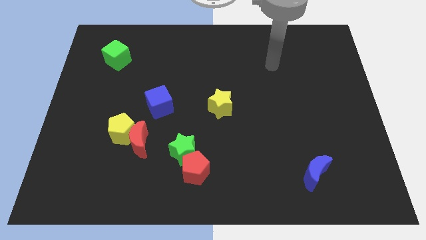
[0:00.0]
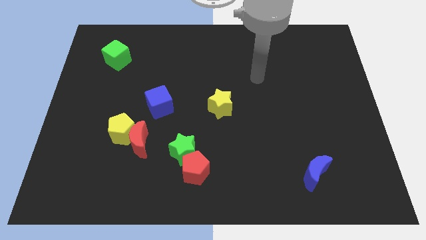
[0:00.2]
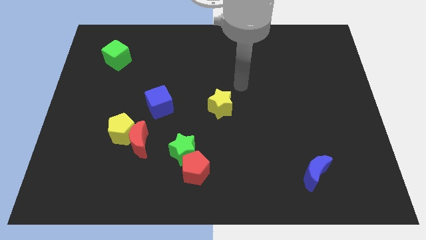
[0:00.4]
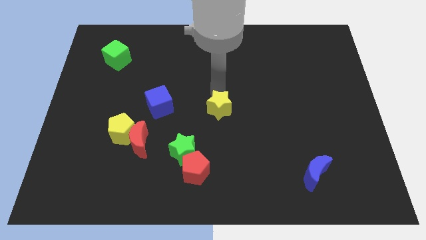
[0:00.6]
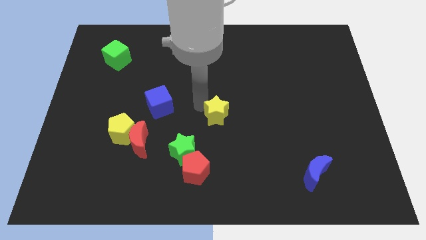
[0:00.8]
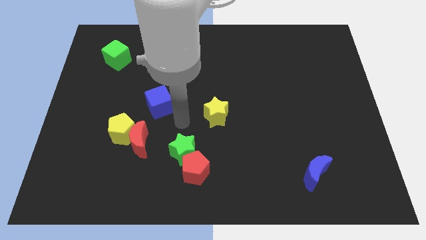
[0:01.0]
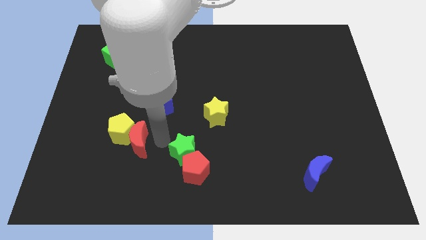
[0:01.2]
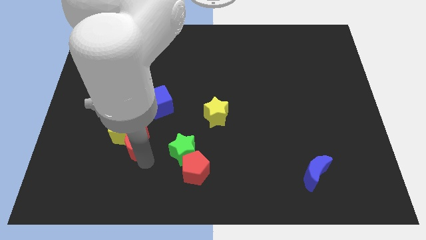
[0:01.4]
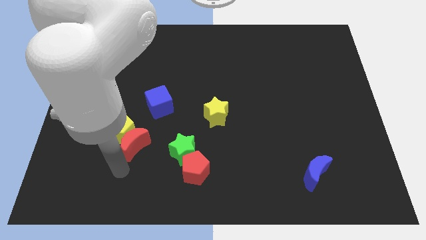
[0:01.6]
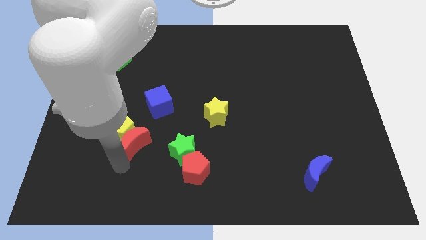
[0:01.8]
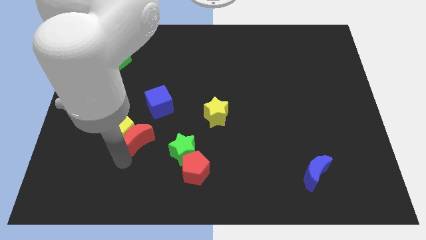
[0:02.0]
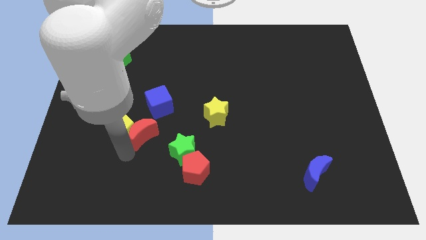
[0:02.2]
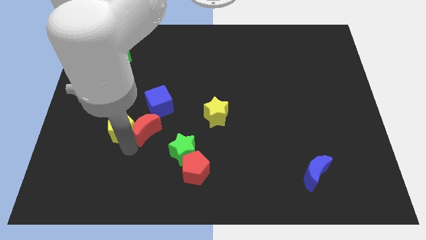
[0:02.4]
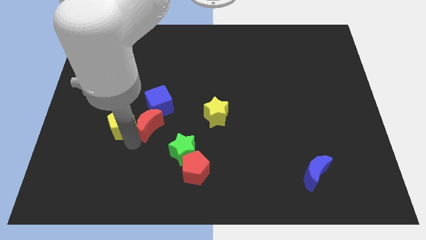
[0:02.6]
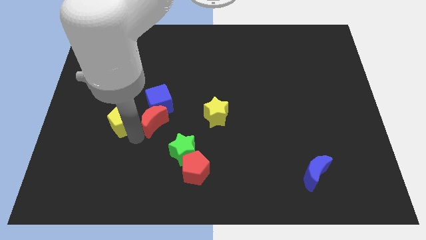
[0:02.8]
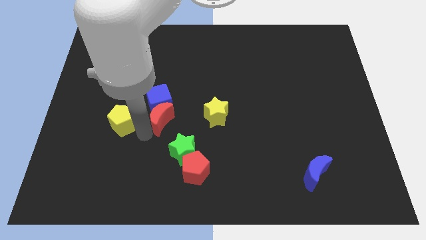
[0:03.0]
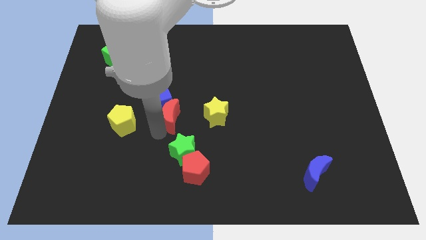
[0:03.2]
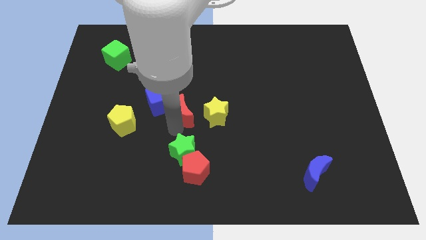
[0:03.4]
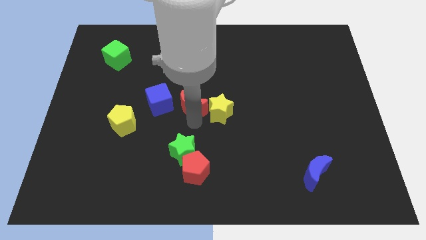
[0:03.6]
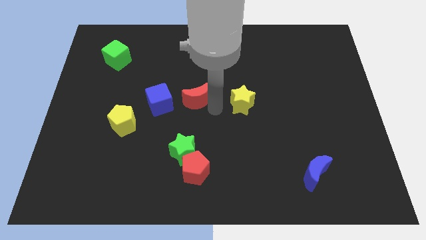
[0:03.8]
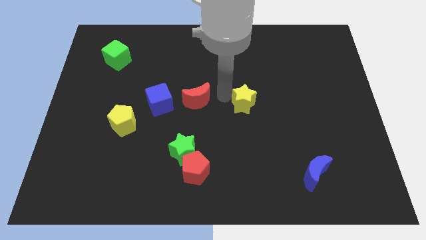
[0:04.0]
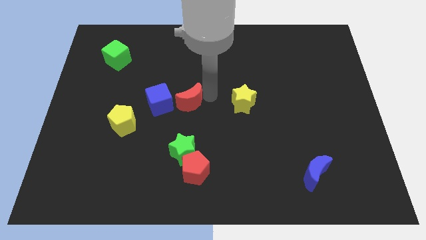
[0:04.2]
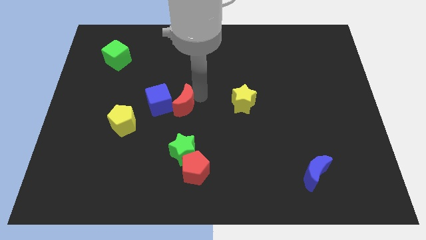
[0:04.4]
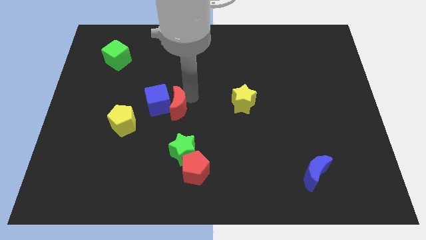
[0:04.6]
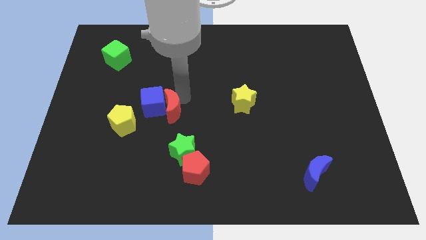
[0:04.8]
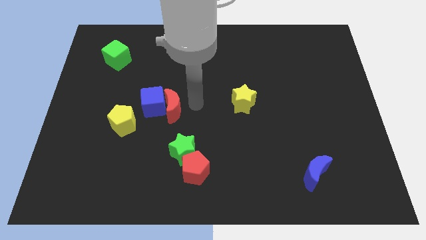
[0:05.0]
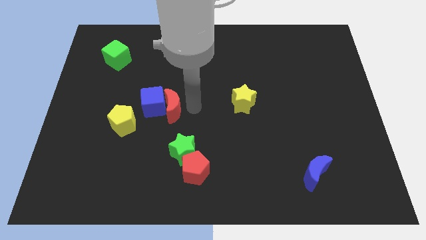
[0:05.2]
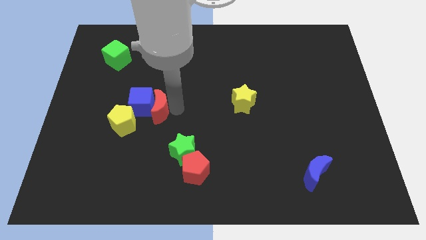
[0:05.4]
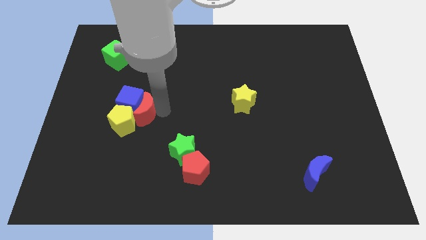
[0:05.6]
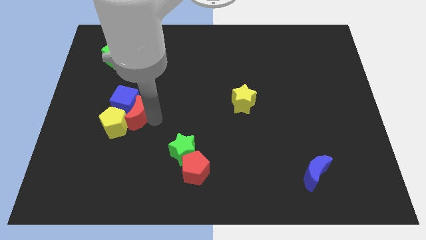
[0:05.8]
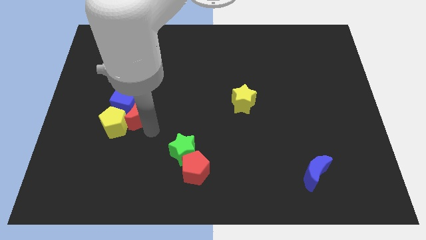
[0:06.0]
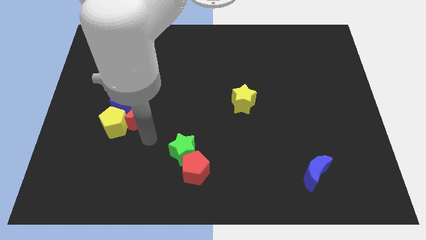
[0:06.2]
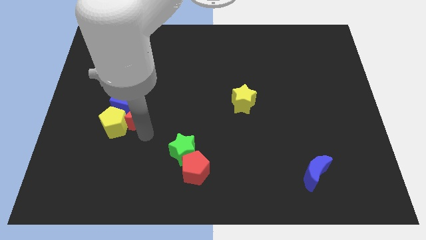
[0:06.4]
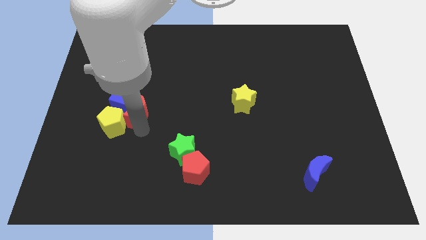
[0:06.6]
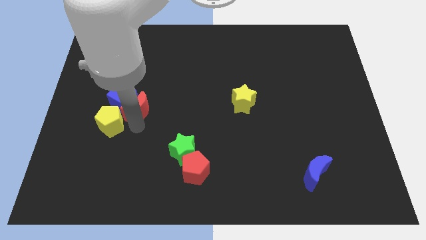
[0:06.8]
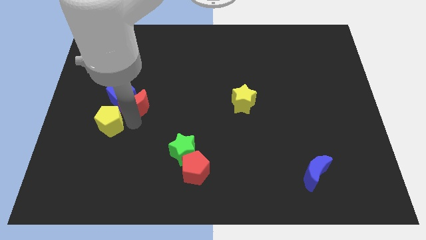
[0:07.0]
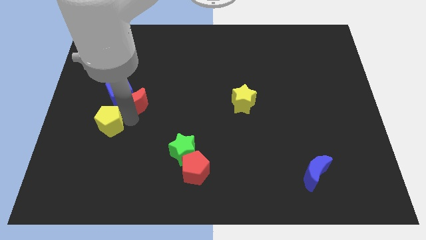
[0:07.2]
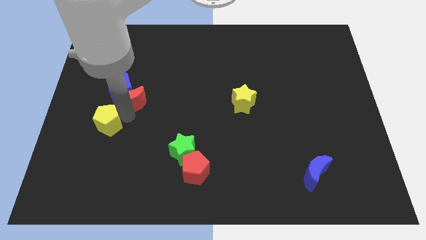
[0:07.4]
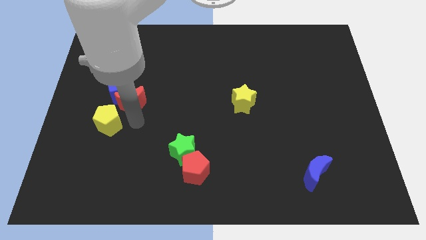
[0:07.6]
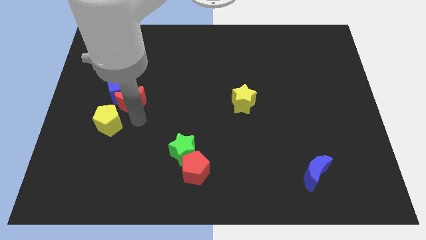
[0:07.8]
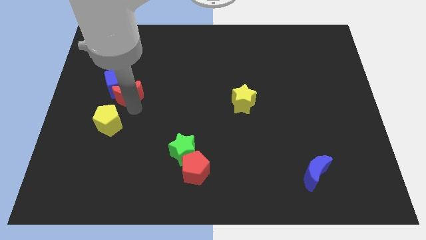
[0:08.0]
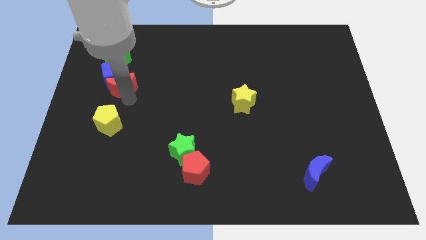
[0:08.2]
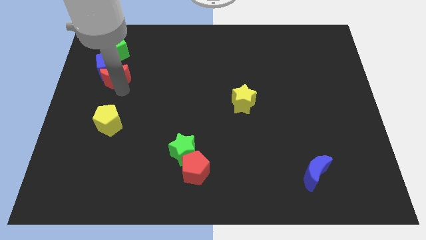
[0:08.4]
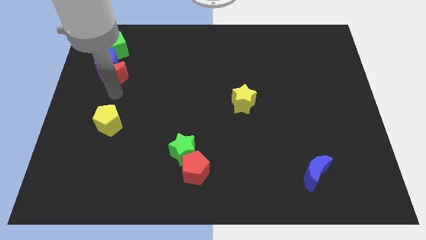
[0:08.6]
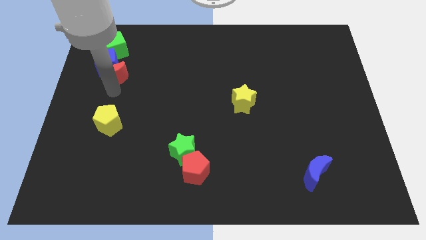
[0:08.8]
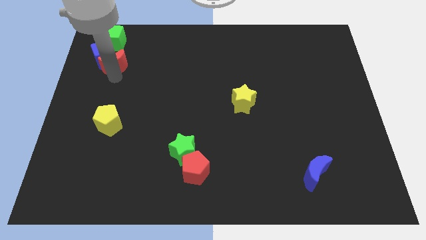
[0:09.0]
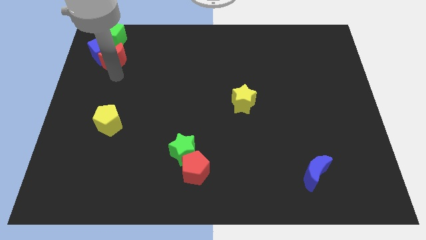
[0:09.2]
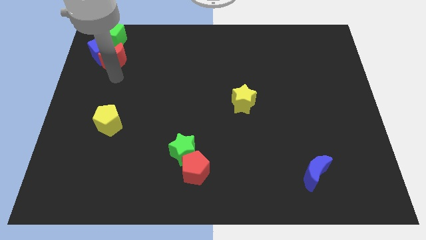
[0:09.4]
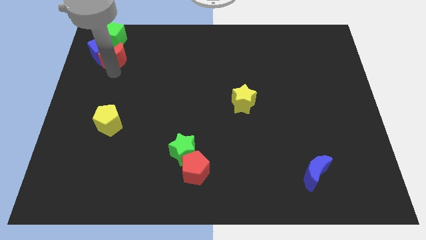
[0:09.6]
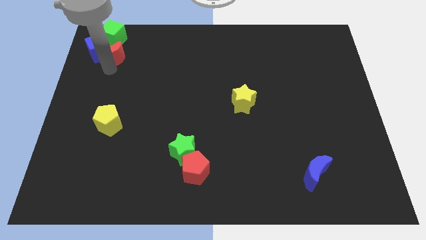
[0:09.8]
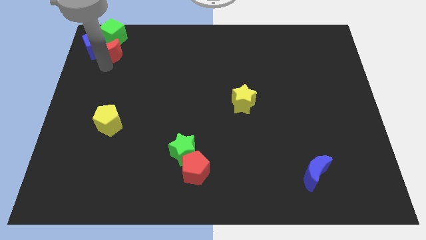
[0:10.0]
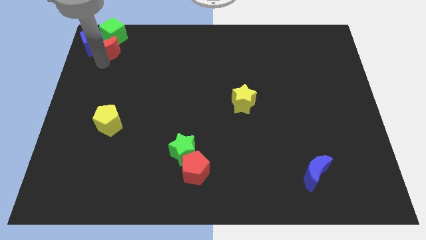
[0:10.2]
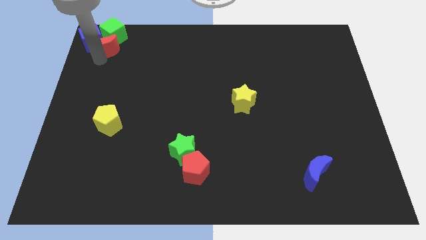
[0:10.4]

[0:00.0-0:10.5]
put the red moon towards the green cube

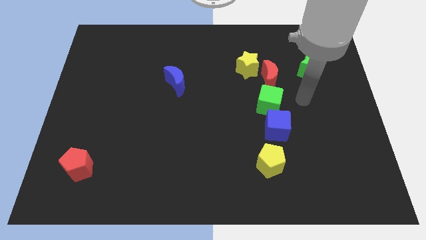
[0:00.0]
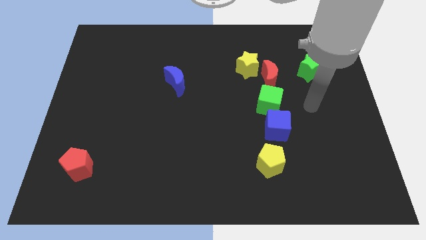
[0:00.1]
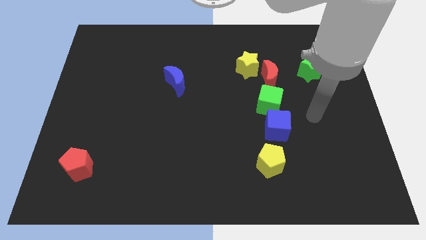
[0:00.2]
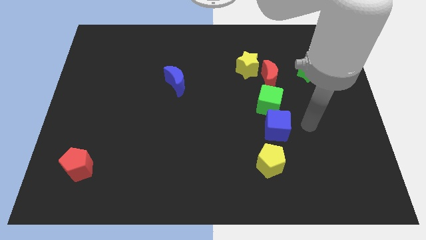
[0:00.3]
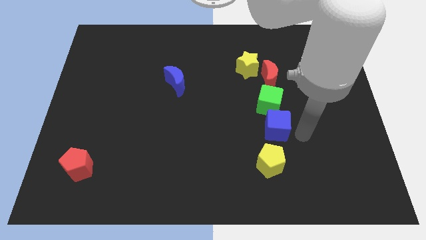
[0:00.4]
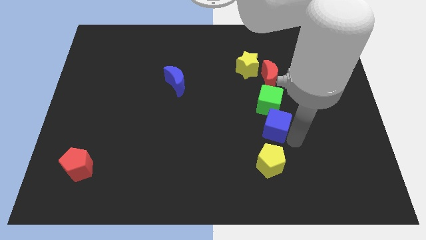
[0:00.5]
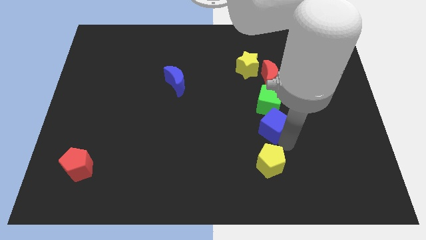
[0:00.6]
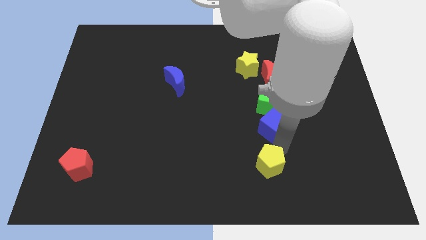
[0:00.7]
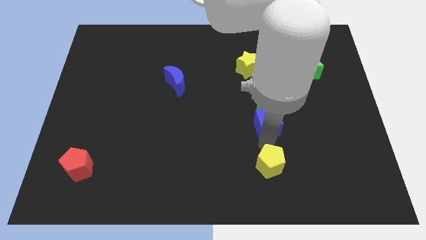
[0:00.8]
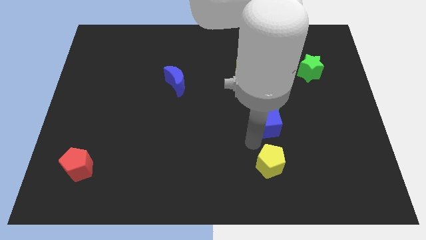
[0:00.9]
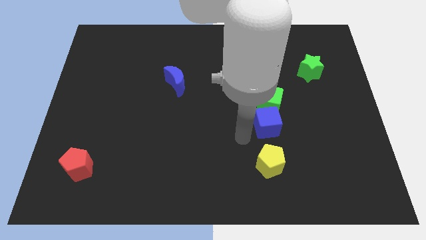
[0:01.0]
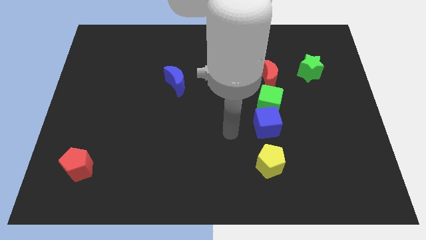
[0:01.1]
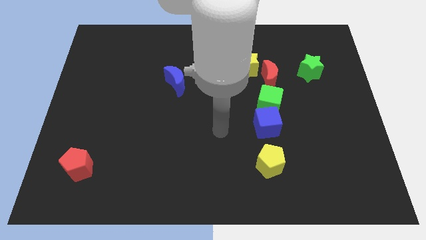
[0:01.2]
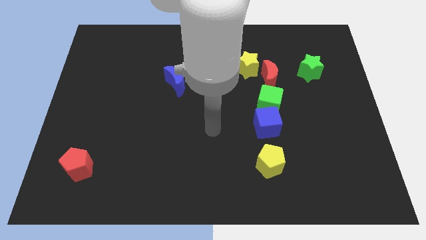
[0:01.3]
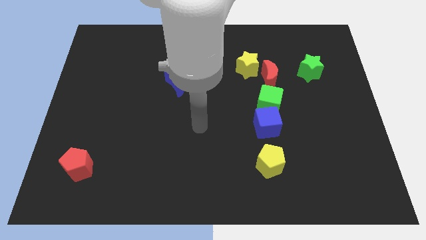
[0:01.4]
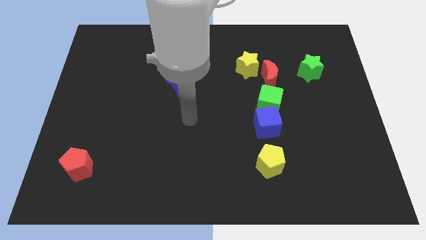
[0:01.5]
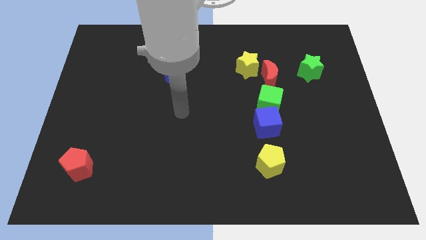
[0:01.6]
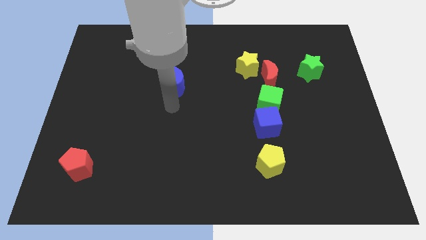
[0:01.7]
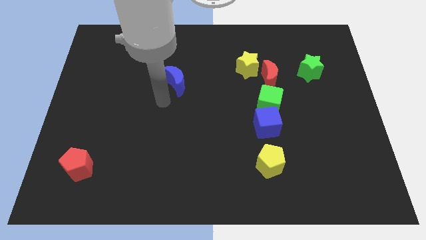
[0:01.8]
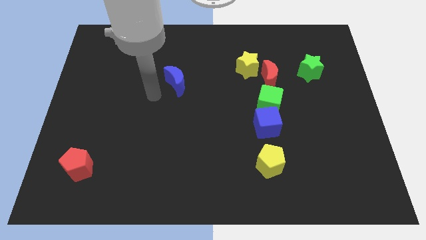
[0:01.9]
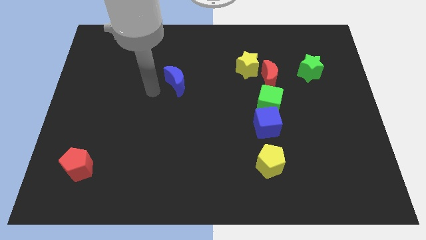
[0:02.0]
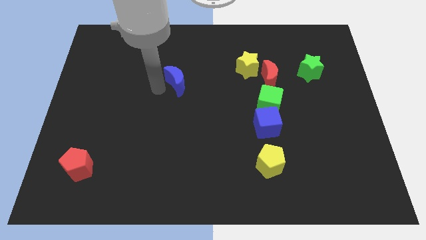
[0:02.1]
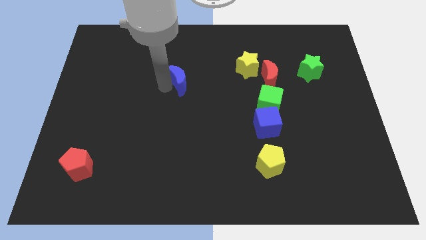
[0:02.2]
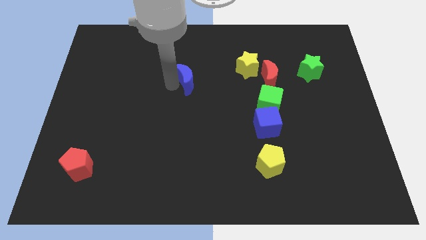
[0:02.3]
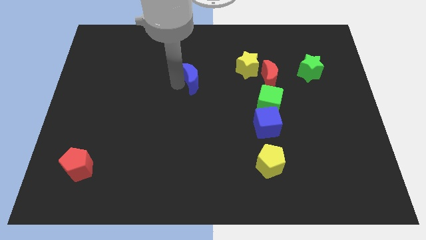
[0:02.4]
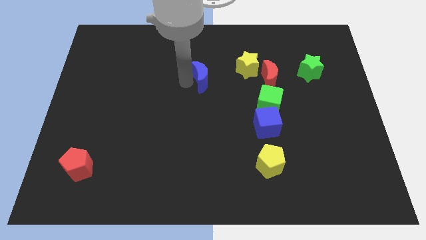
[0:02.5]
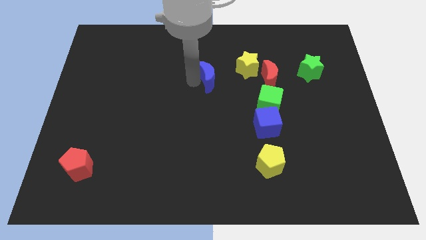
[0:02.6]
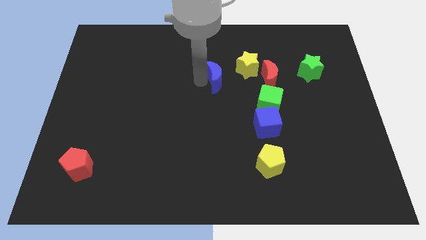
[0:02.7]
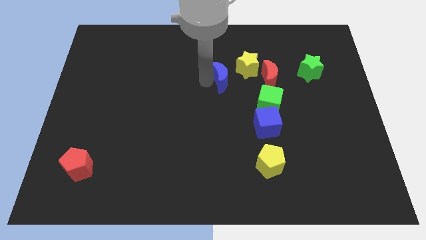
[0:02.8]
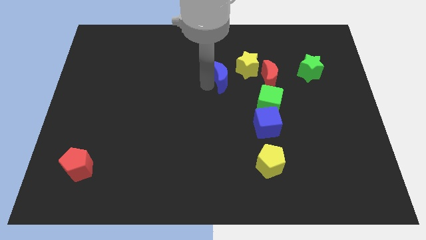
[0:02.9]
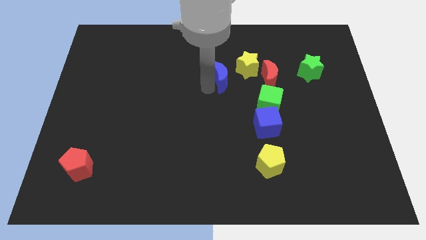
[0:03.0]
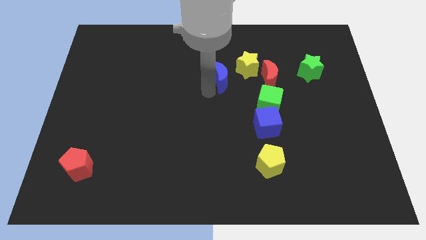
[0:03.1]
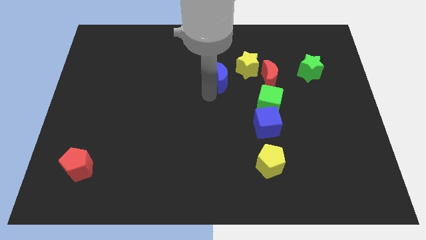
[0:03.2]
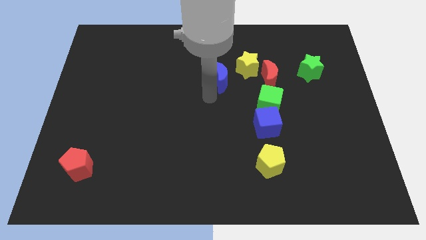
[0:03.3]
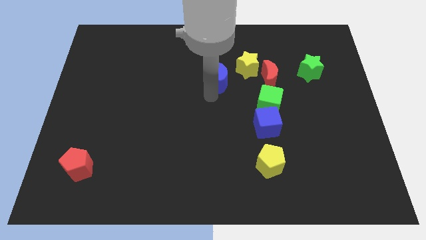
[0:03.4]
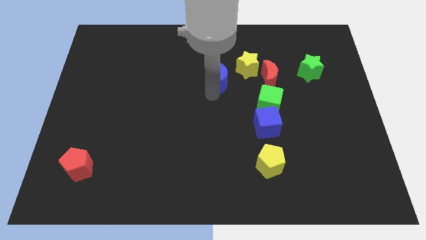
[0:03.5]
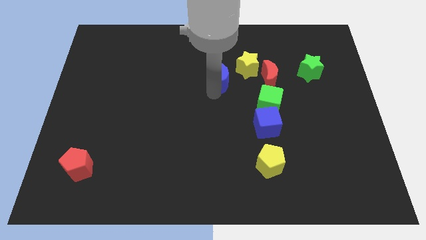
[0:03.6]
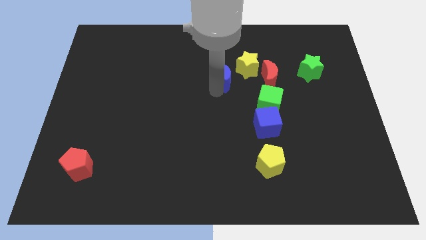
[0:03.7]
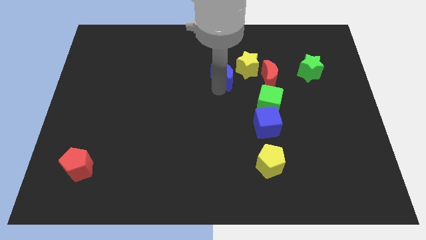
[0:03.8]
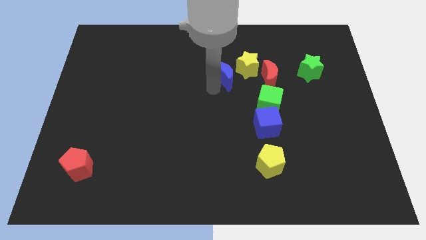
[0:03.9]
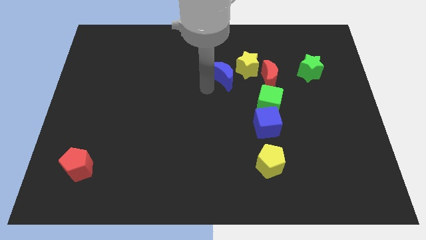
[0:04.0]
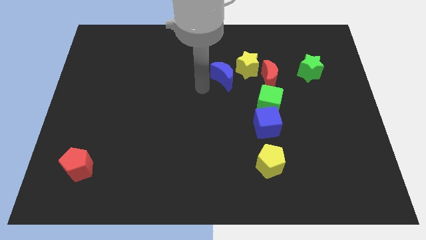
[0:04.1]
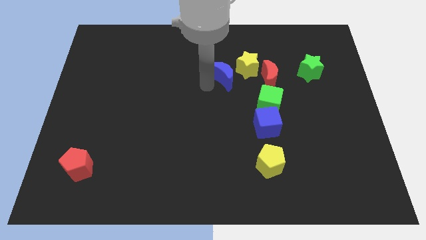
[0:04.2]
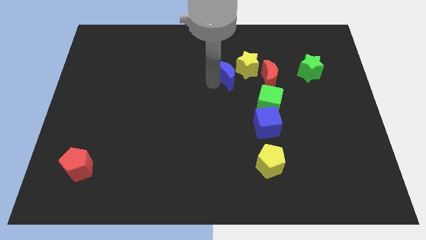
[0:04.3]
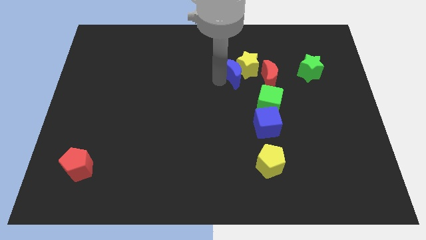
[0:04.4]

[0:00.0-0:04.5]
push the blue moon close to the yellow star
